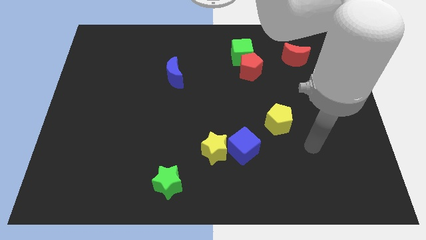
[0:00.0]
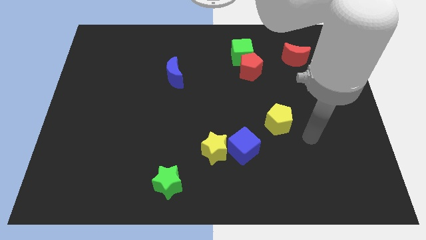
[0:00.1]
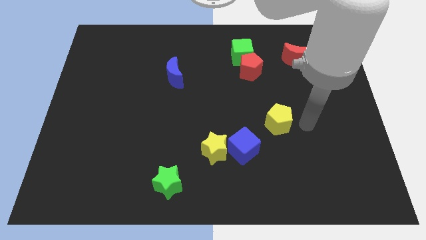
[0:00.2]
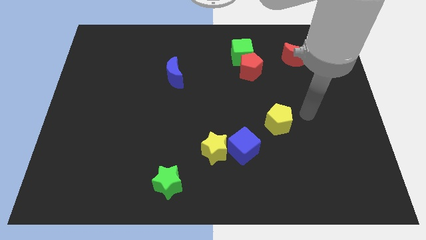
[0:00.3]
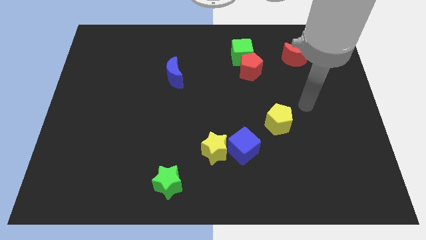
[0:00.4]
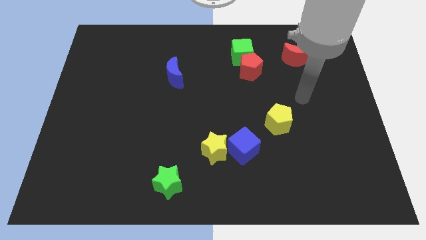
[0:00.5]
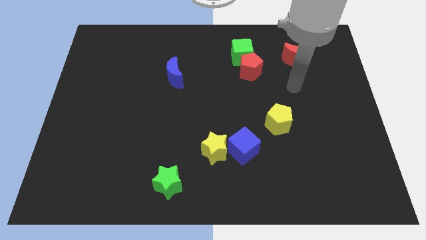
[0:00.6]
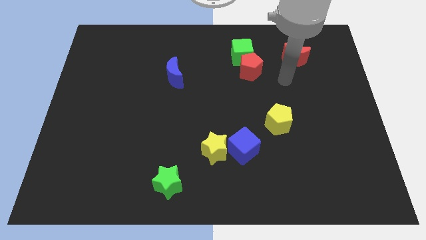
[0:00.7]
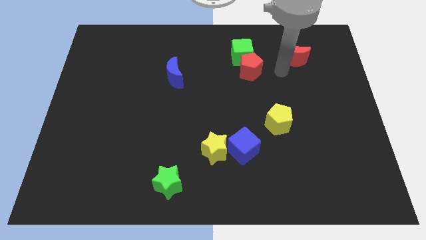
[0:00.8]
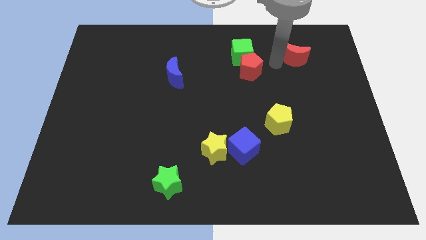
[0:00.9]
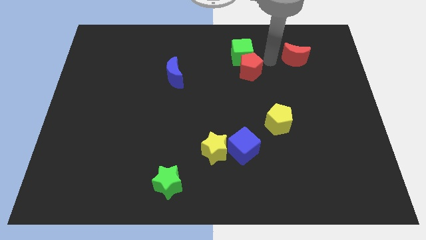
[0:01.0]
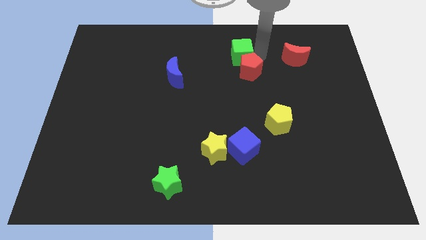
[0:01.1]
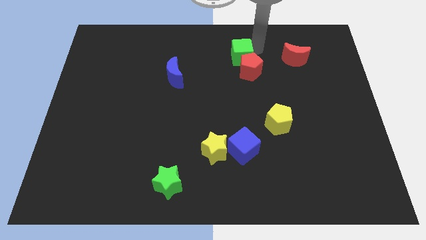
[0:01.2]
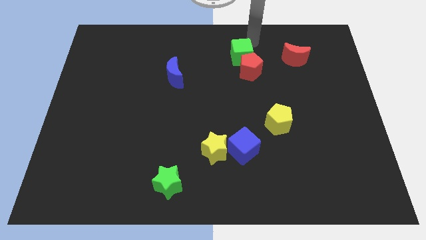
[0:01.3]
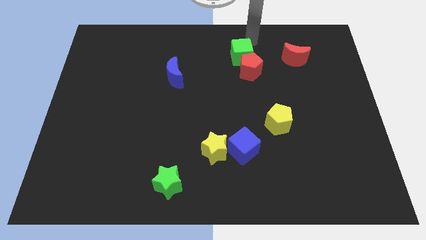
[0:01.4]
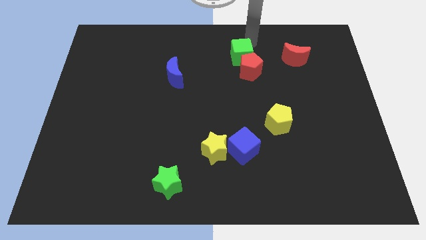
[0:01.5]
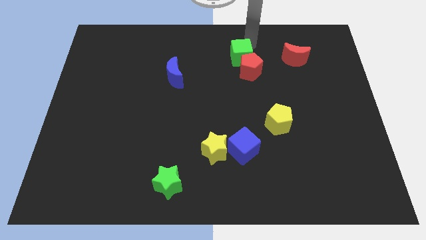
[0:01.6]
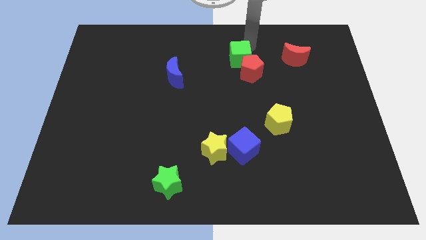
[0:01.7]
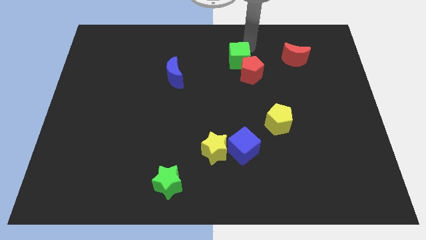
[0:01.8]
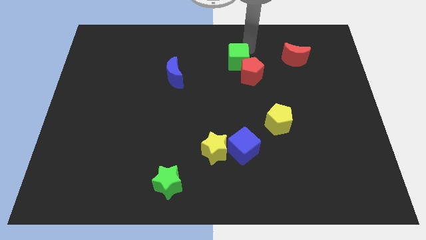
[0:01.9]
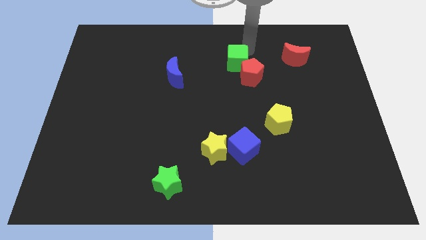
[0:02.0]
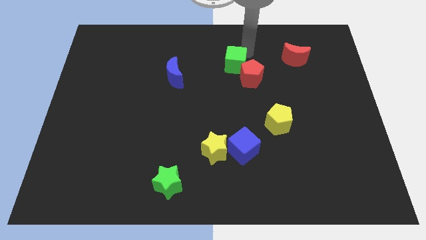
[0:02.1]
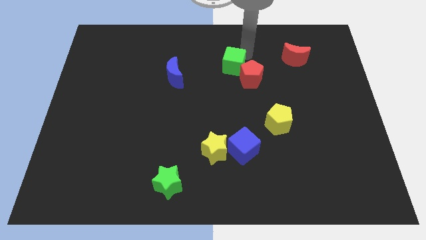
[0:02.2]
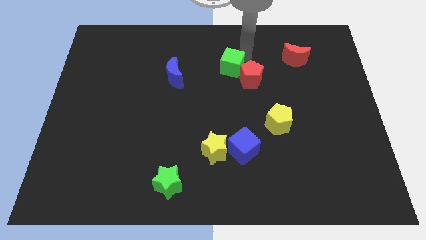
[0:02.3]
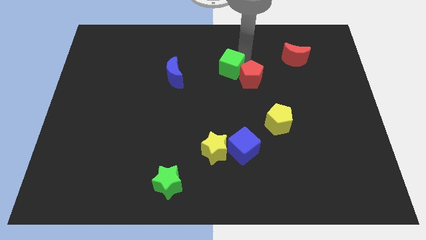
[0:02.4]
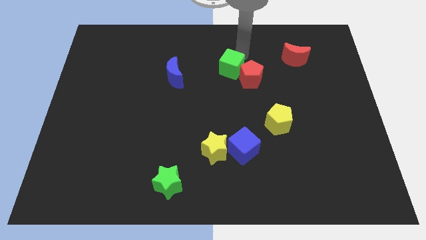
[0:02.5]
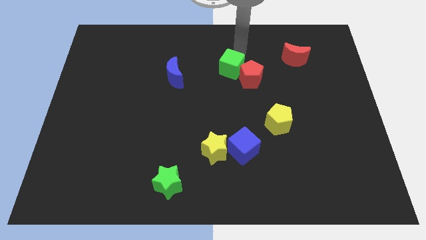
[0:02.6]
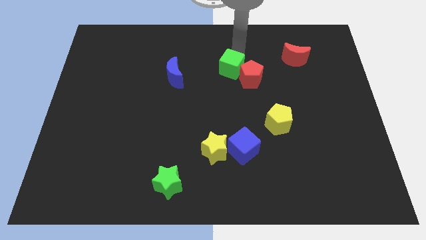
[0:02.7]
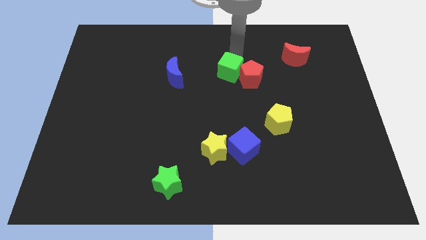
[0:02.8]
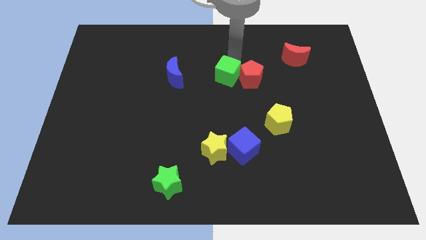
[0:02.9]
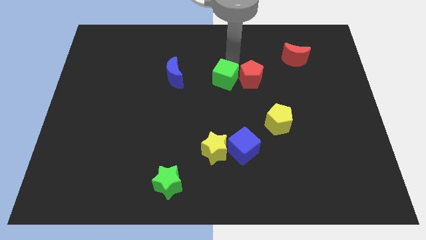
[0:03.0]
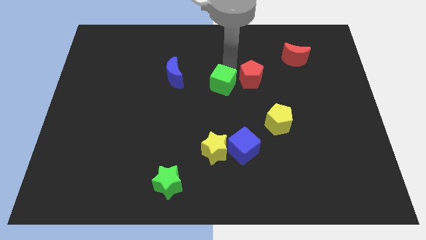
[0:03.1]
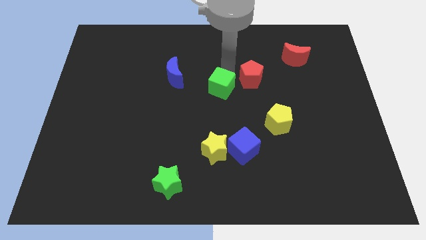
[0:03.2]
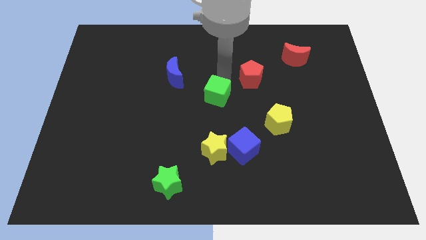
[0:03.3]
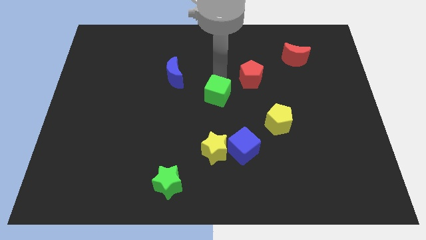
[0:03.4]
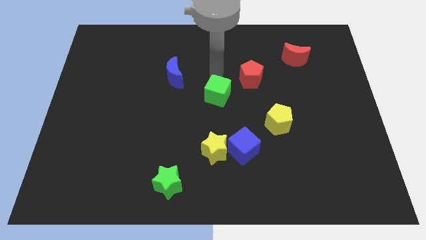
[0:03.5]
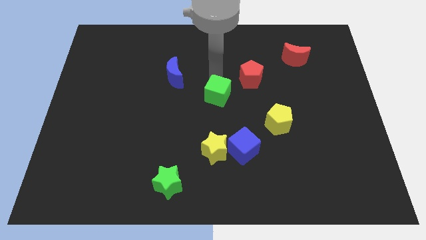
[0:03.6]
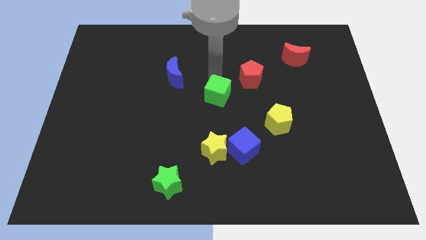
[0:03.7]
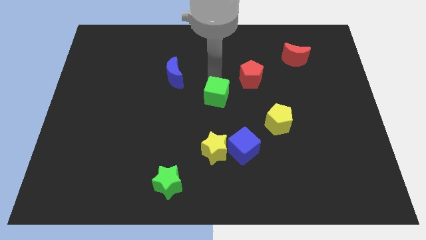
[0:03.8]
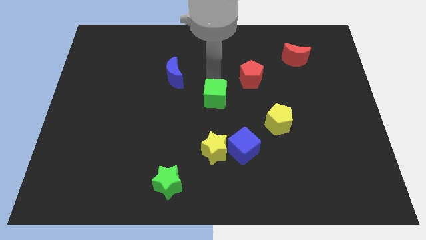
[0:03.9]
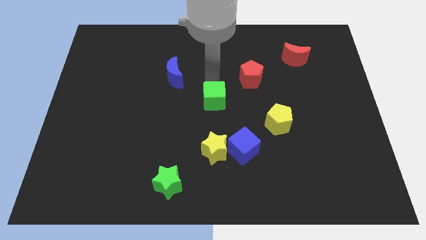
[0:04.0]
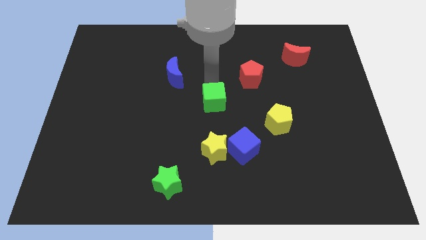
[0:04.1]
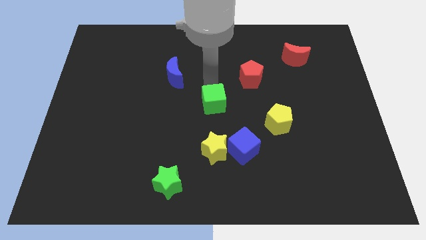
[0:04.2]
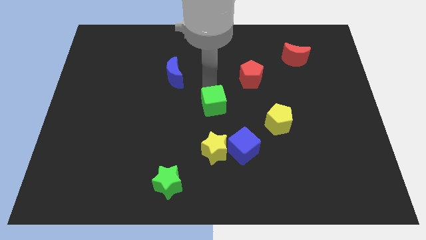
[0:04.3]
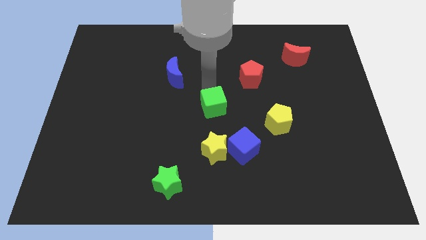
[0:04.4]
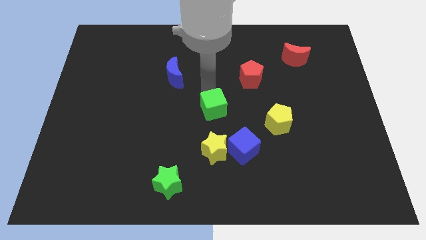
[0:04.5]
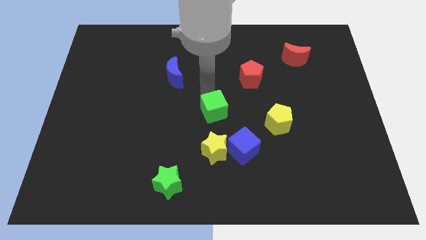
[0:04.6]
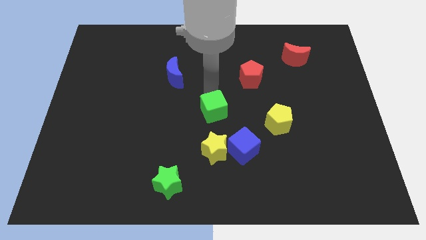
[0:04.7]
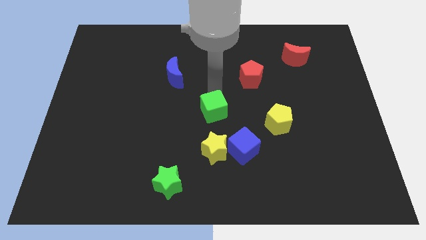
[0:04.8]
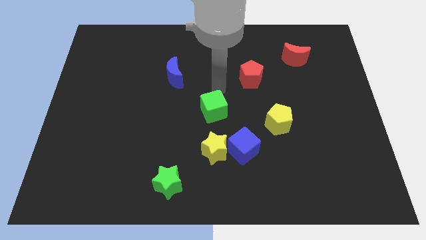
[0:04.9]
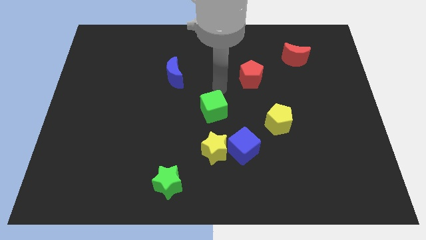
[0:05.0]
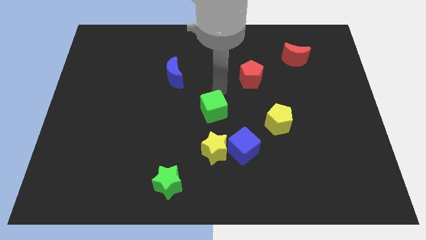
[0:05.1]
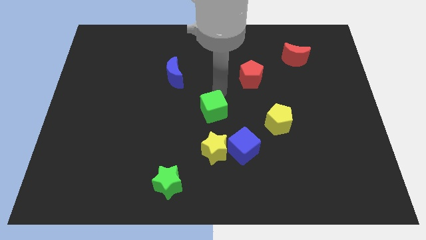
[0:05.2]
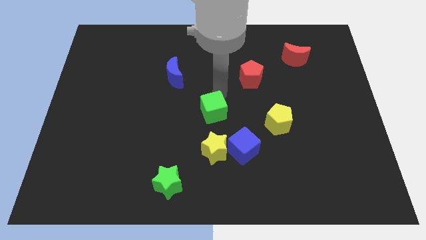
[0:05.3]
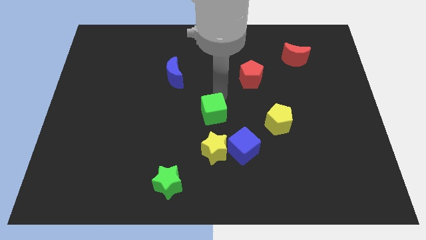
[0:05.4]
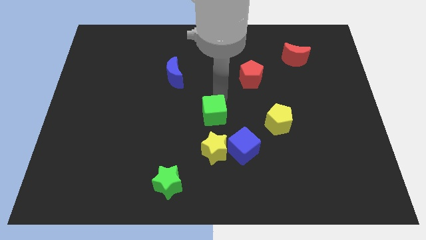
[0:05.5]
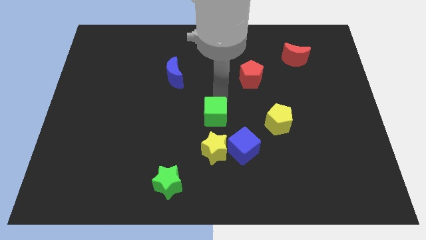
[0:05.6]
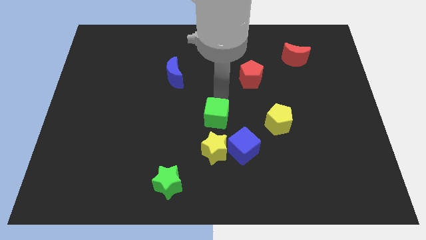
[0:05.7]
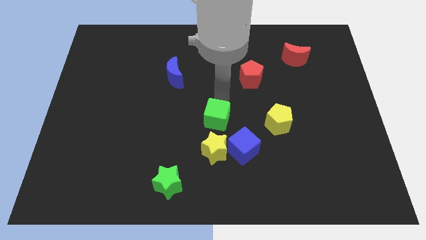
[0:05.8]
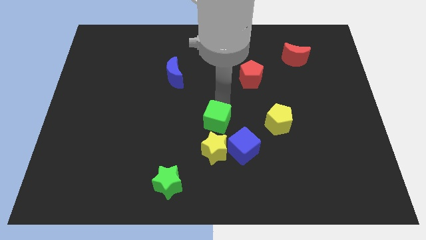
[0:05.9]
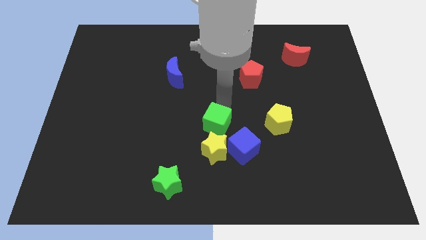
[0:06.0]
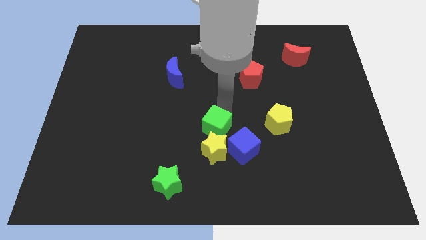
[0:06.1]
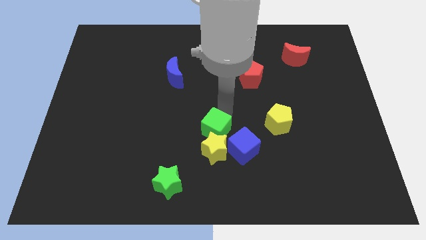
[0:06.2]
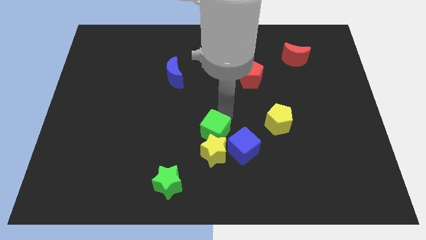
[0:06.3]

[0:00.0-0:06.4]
push the green cube just left of the blue cube
